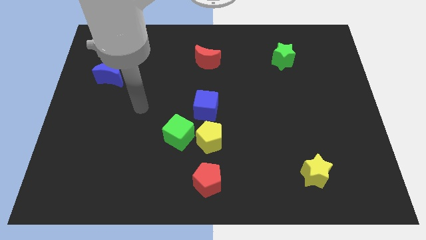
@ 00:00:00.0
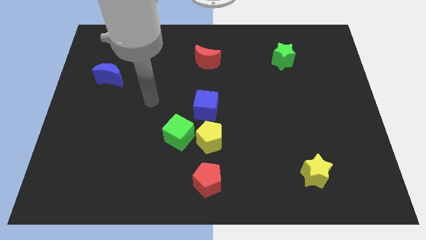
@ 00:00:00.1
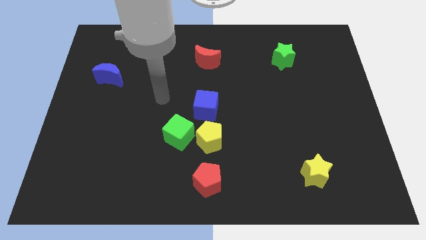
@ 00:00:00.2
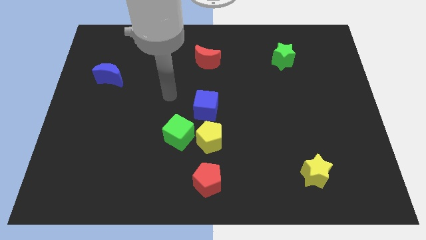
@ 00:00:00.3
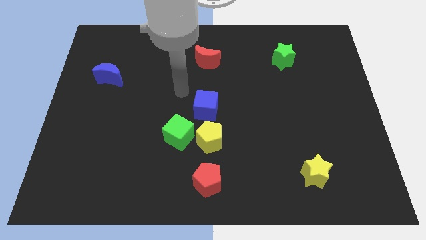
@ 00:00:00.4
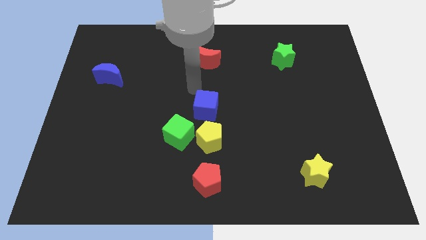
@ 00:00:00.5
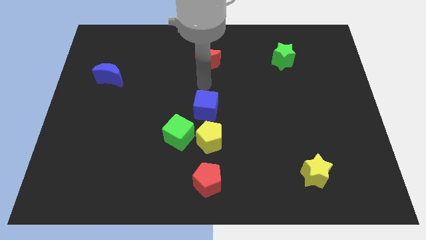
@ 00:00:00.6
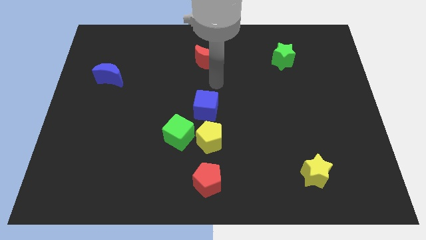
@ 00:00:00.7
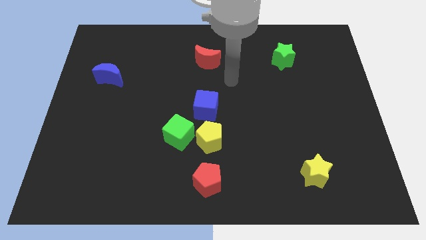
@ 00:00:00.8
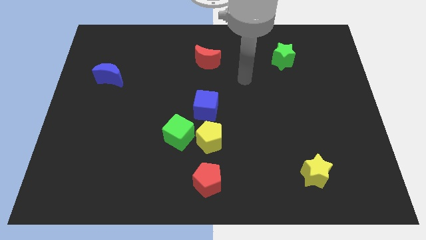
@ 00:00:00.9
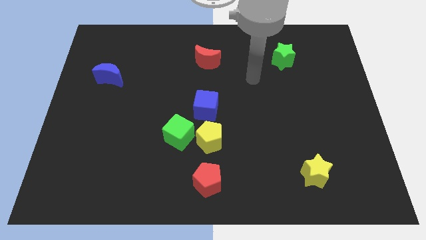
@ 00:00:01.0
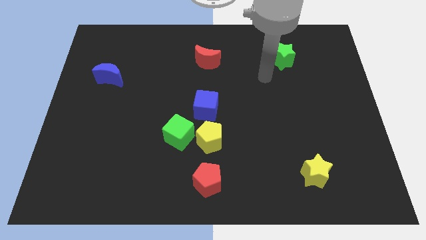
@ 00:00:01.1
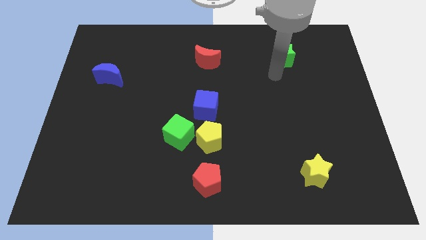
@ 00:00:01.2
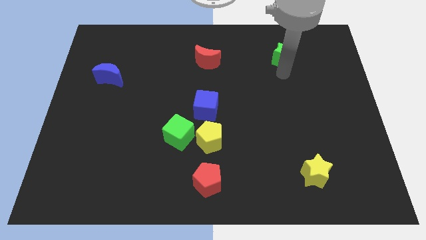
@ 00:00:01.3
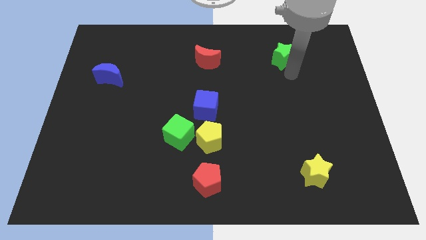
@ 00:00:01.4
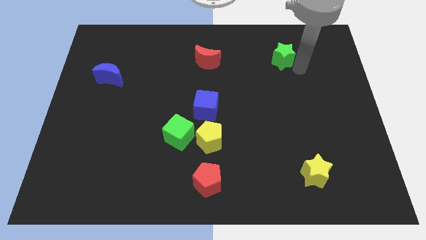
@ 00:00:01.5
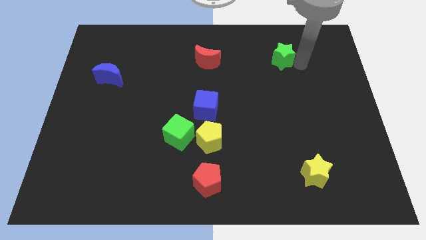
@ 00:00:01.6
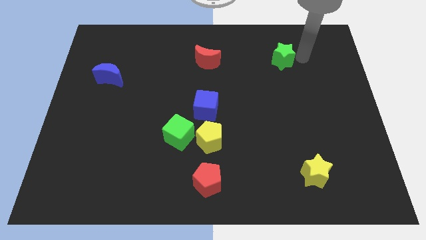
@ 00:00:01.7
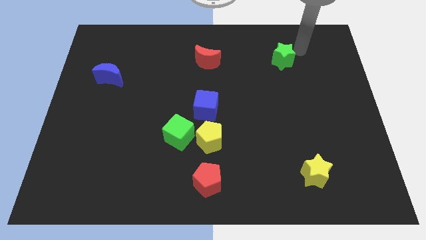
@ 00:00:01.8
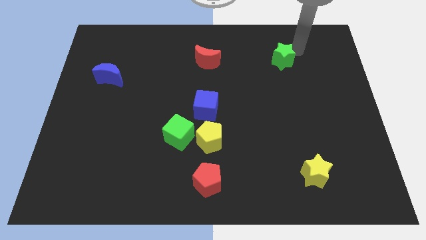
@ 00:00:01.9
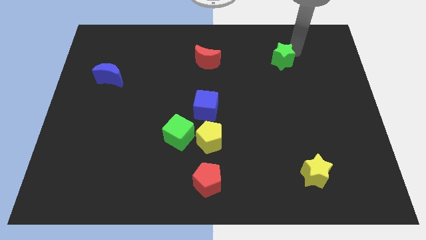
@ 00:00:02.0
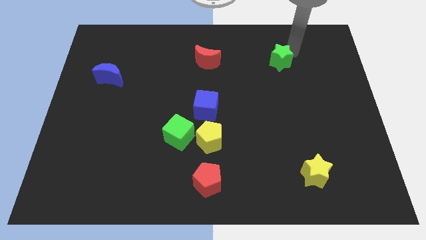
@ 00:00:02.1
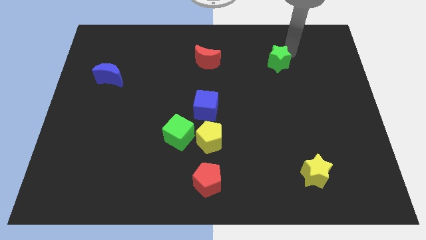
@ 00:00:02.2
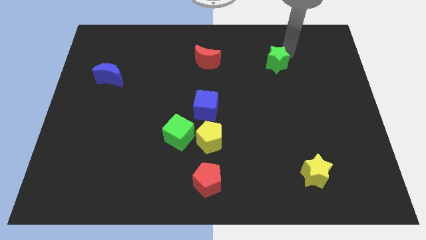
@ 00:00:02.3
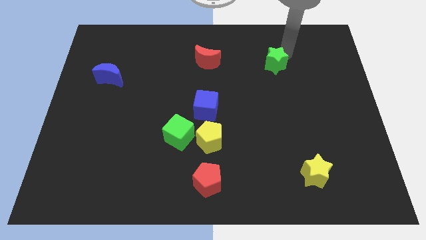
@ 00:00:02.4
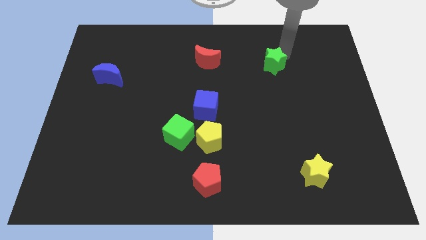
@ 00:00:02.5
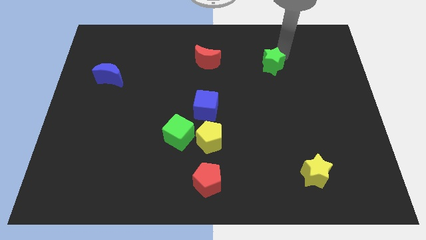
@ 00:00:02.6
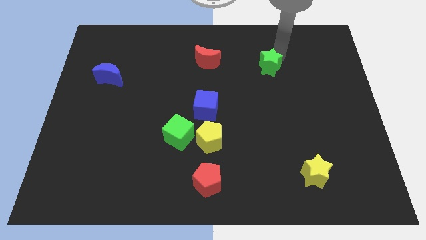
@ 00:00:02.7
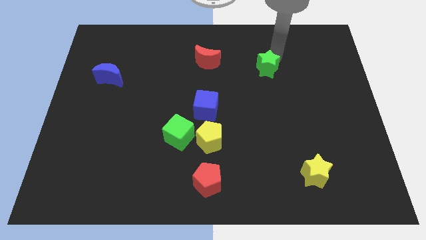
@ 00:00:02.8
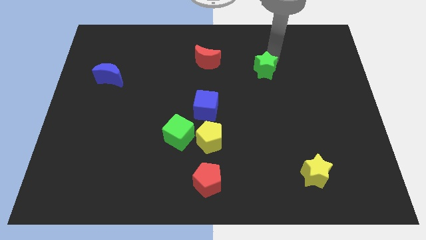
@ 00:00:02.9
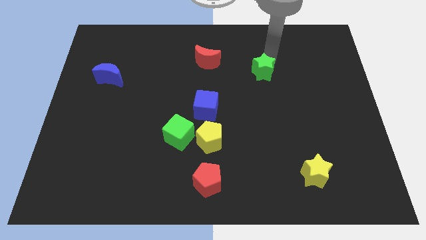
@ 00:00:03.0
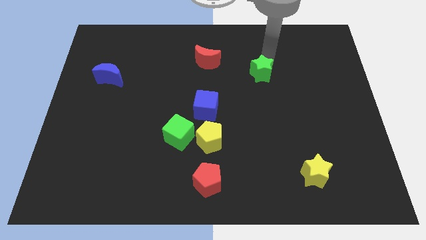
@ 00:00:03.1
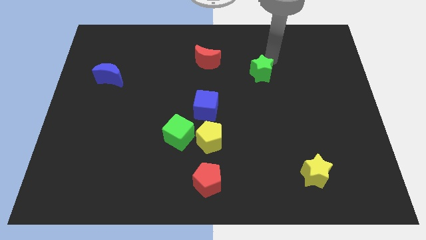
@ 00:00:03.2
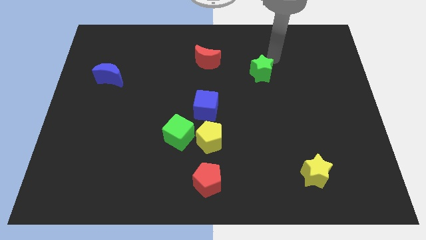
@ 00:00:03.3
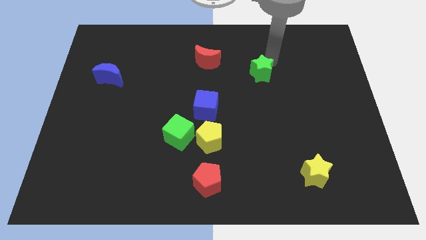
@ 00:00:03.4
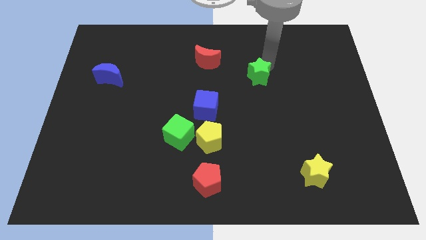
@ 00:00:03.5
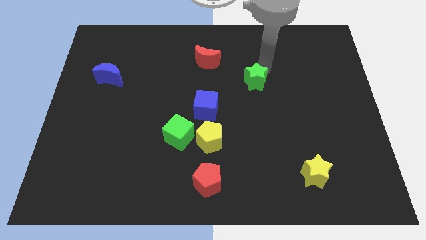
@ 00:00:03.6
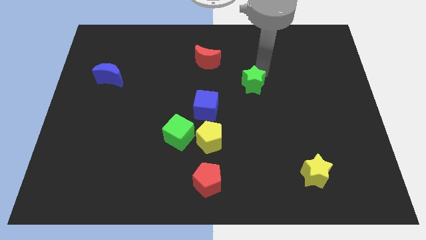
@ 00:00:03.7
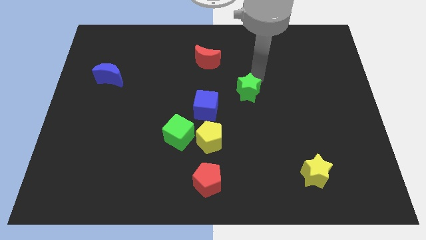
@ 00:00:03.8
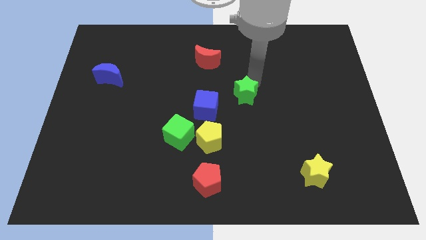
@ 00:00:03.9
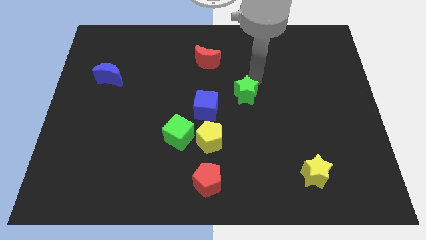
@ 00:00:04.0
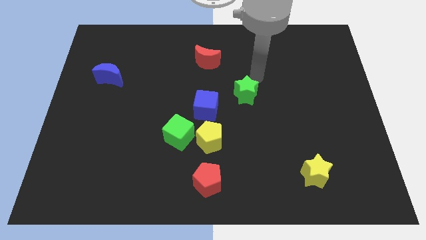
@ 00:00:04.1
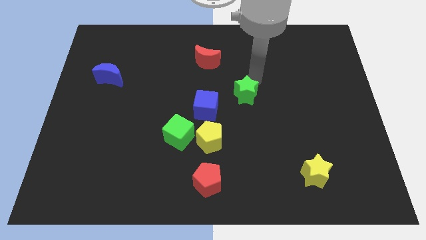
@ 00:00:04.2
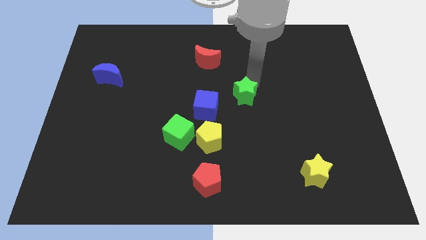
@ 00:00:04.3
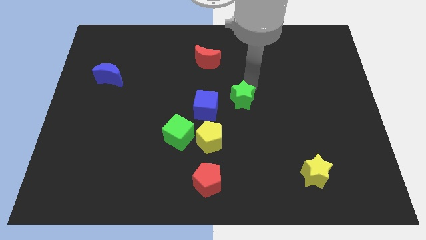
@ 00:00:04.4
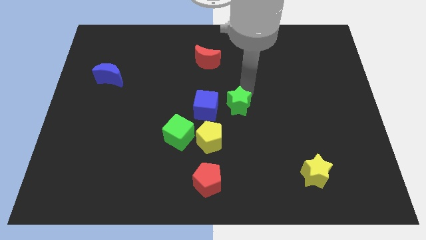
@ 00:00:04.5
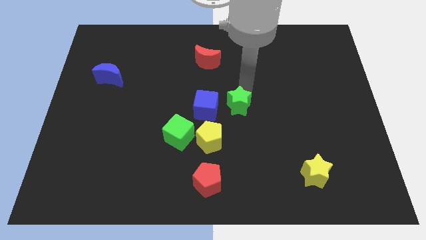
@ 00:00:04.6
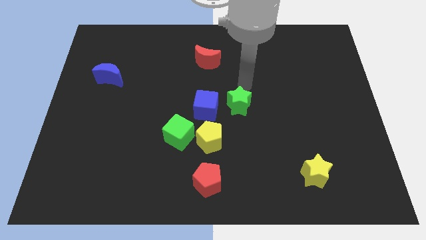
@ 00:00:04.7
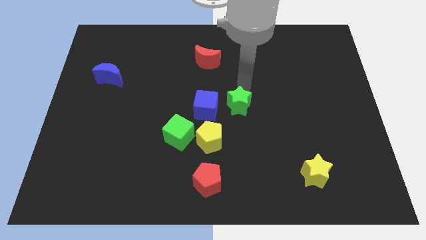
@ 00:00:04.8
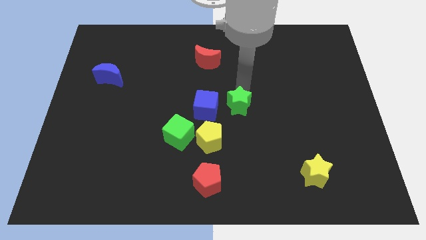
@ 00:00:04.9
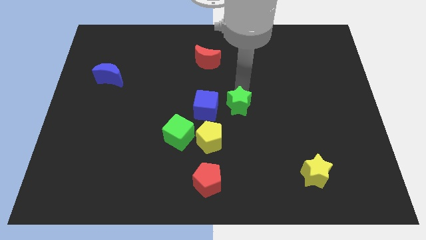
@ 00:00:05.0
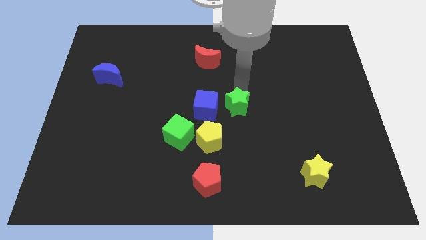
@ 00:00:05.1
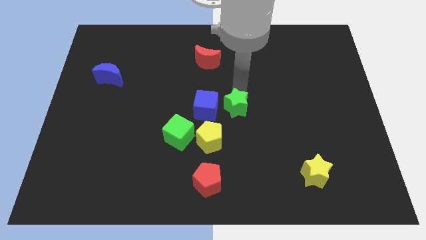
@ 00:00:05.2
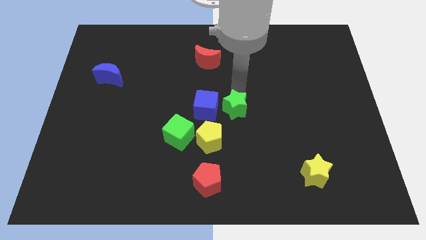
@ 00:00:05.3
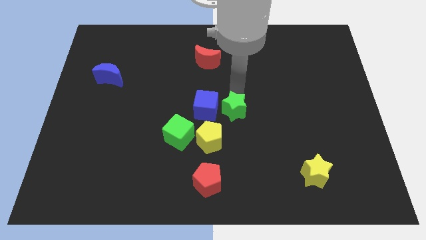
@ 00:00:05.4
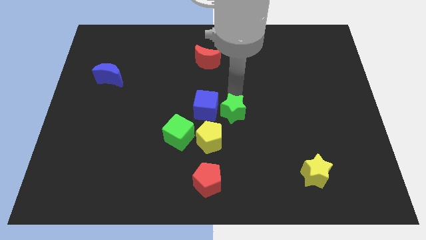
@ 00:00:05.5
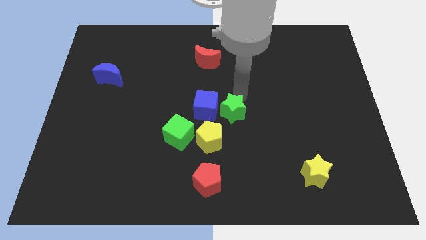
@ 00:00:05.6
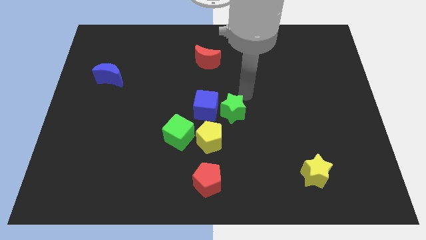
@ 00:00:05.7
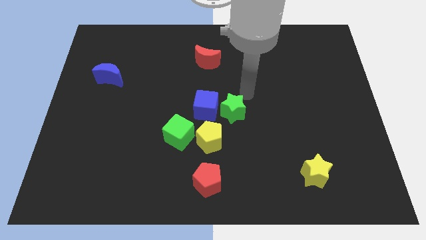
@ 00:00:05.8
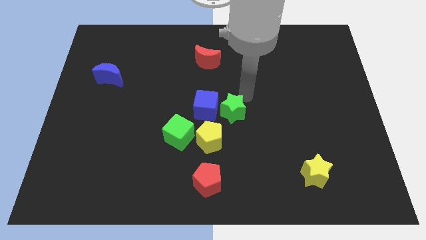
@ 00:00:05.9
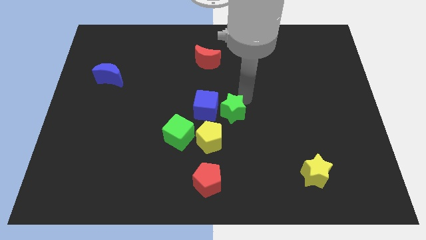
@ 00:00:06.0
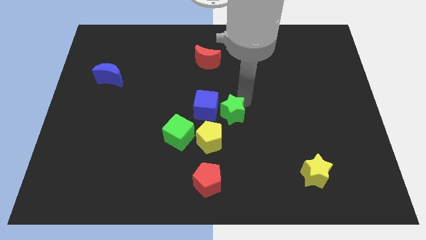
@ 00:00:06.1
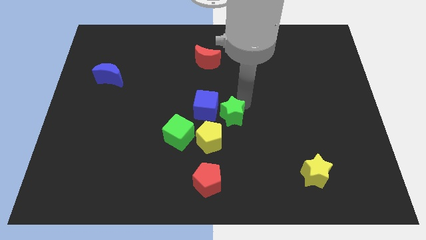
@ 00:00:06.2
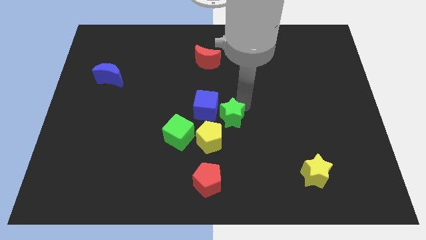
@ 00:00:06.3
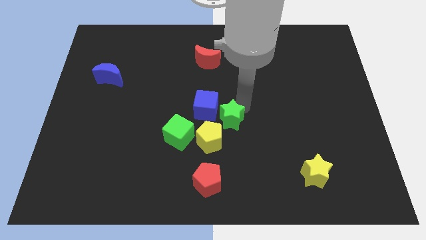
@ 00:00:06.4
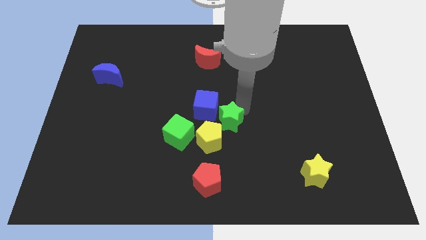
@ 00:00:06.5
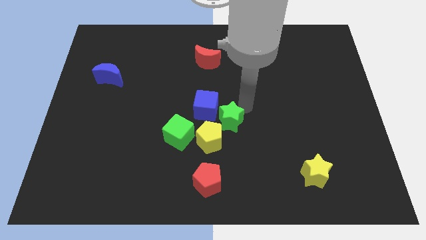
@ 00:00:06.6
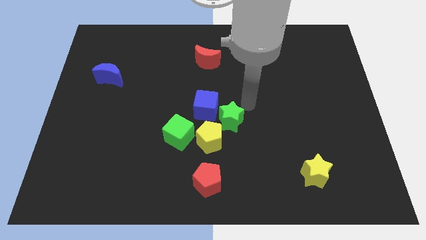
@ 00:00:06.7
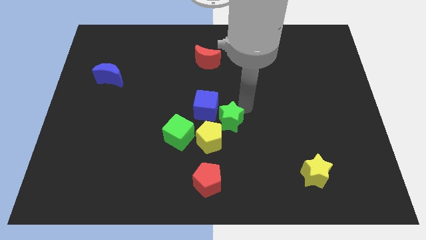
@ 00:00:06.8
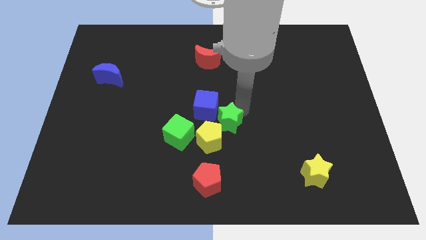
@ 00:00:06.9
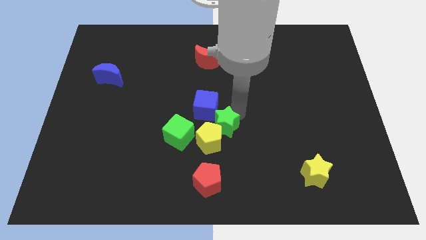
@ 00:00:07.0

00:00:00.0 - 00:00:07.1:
slide the green star close to the yellow pentagon
